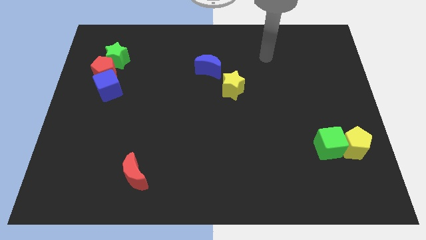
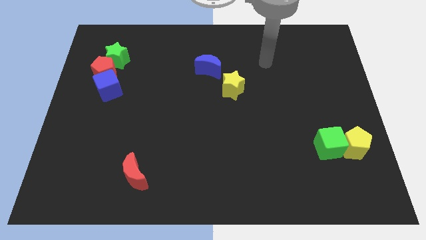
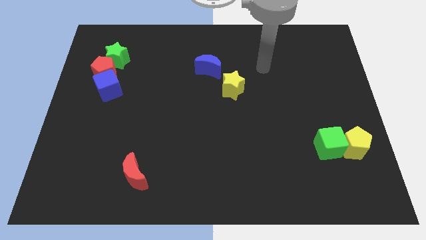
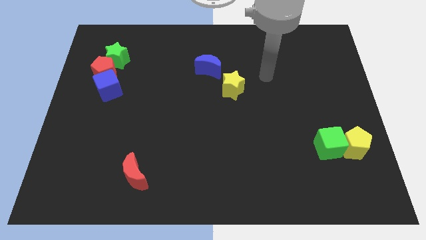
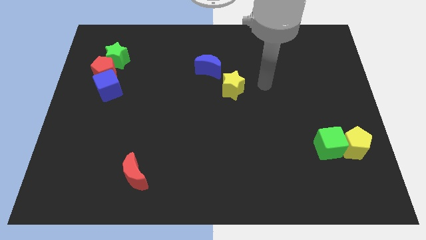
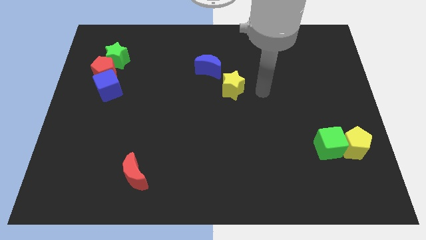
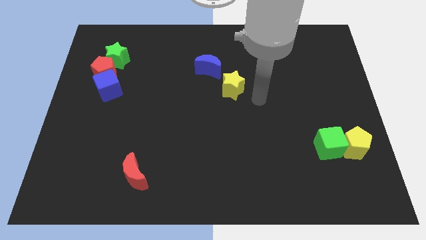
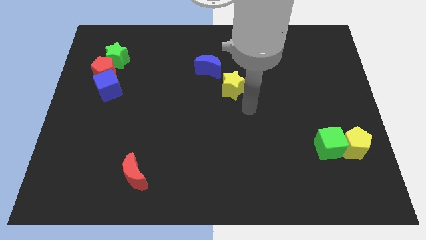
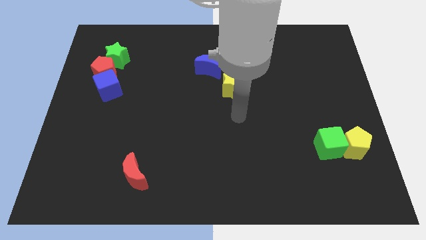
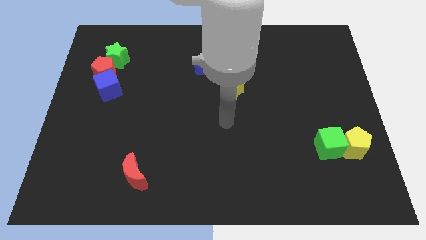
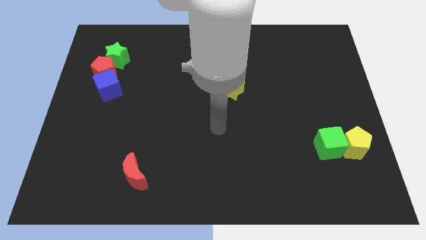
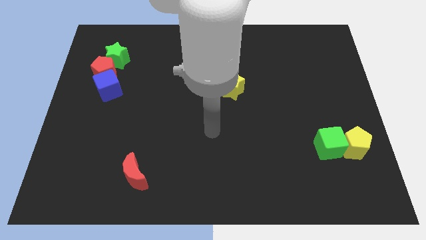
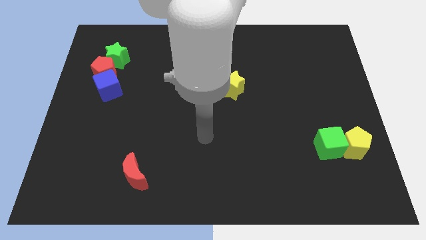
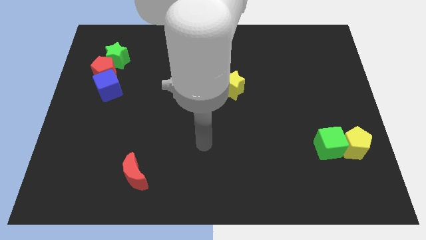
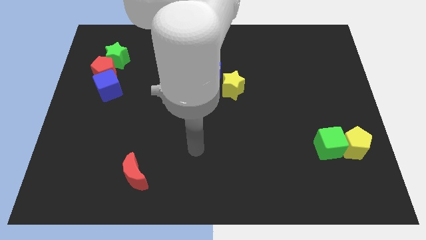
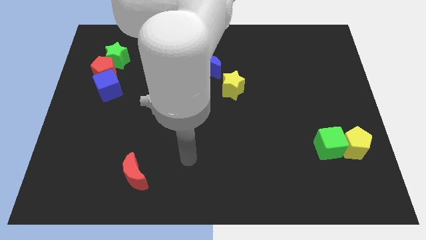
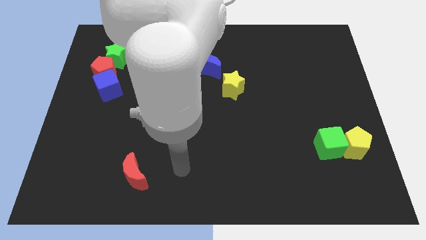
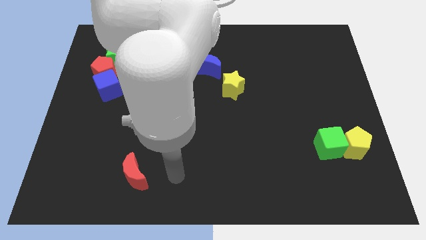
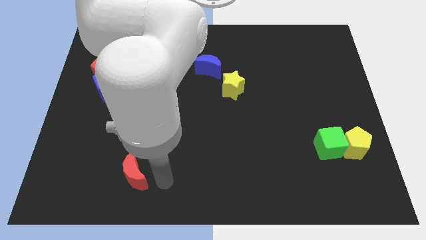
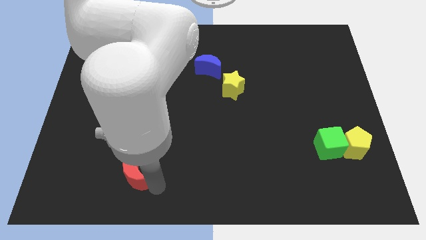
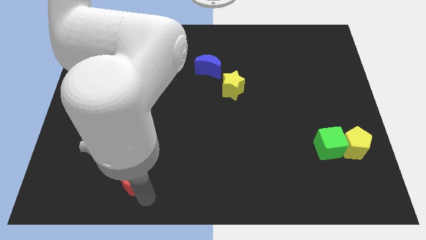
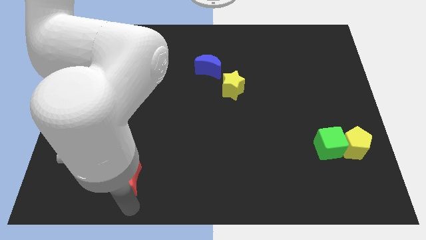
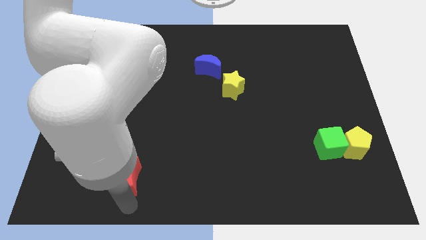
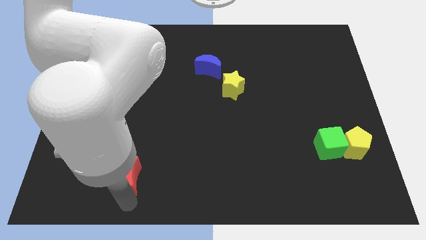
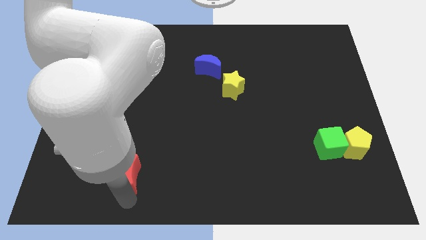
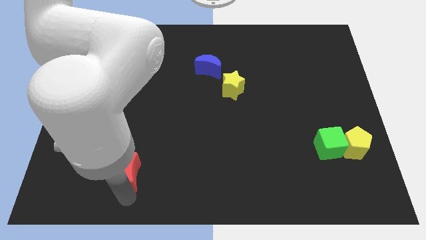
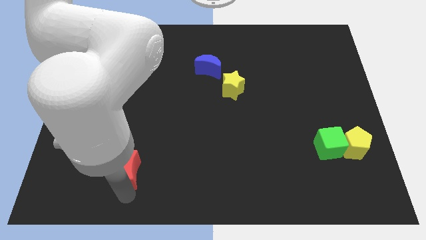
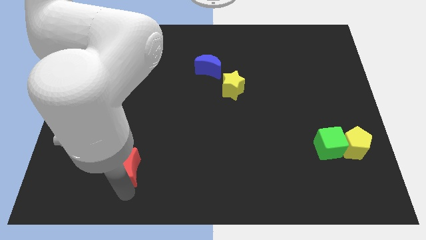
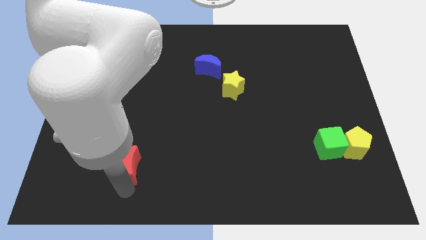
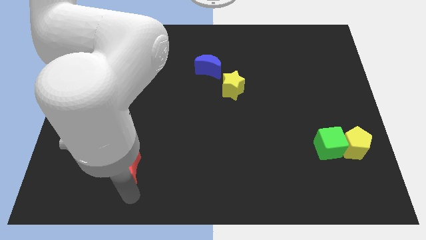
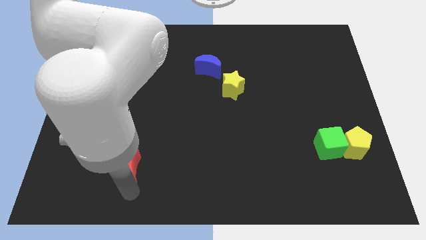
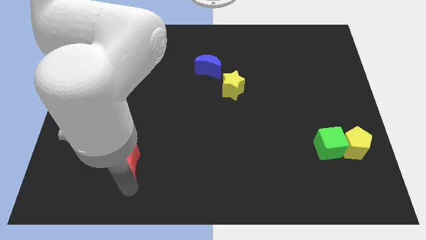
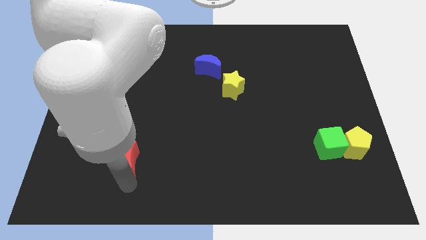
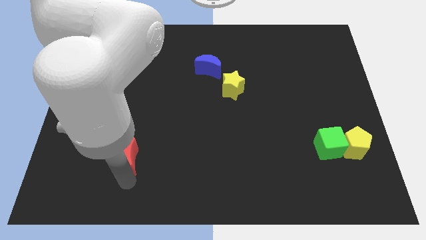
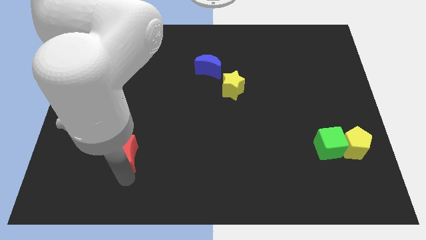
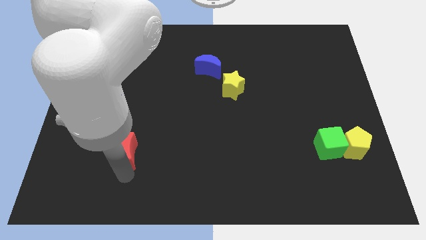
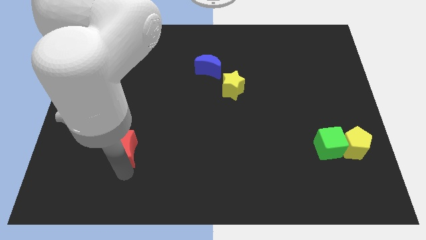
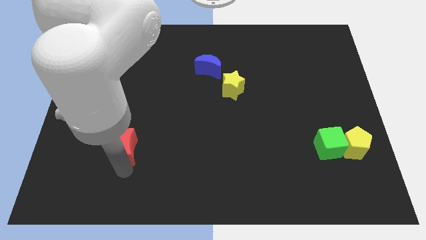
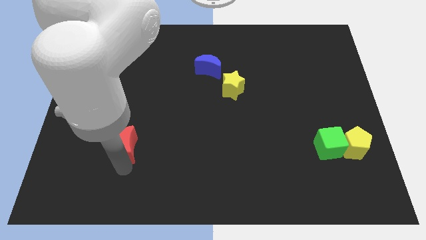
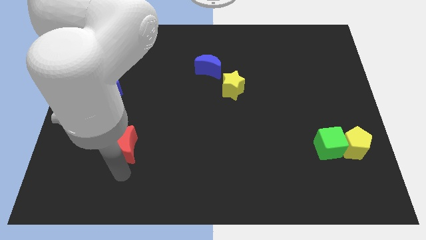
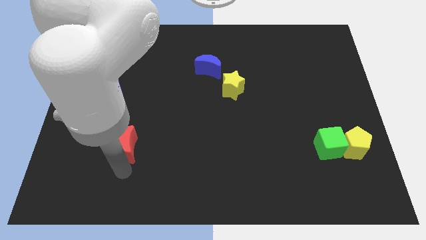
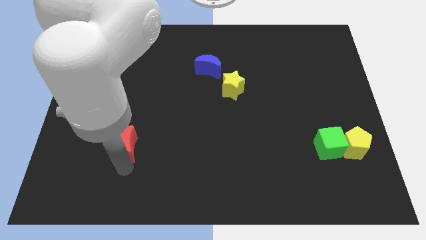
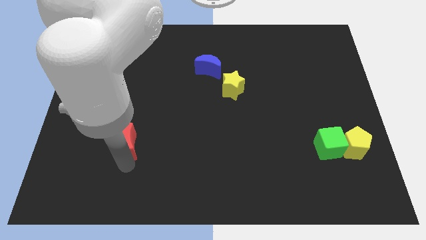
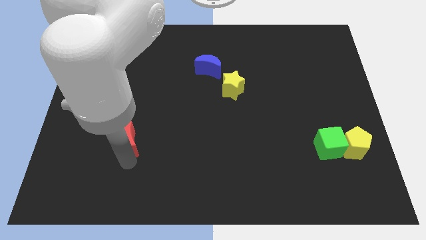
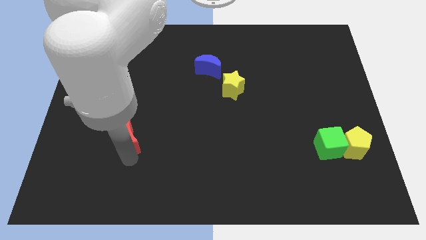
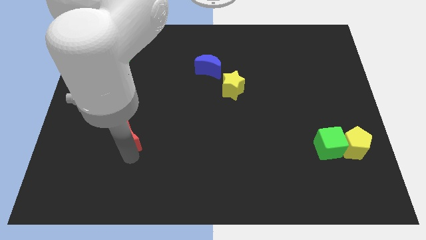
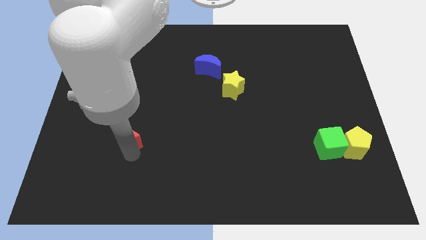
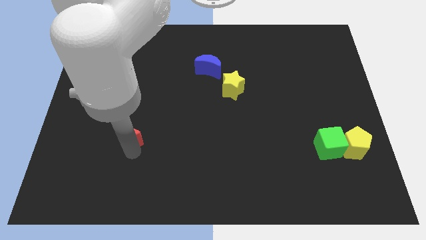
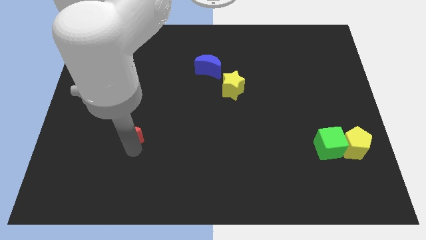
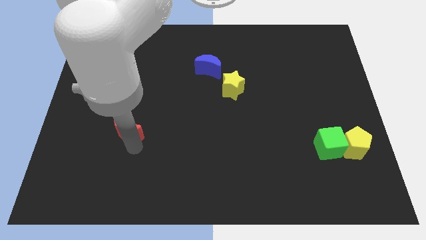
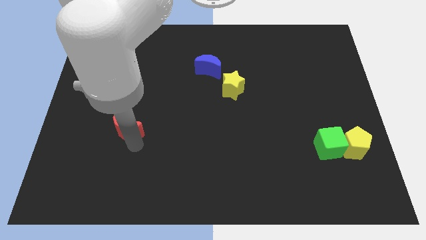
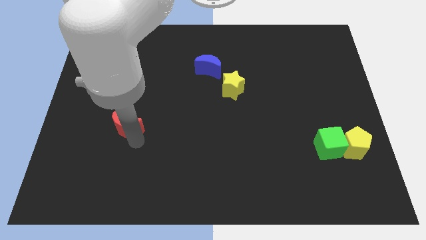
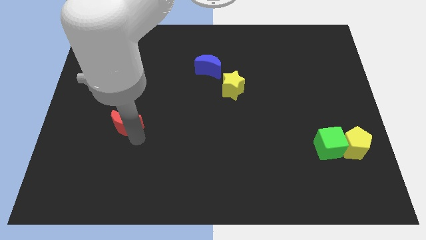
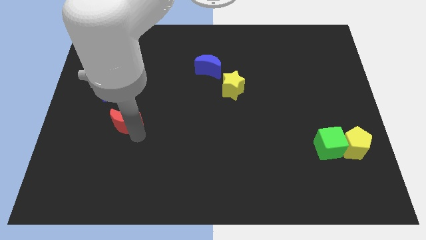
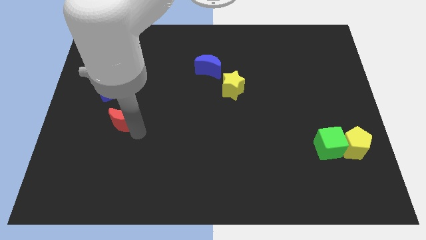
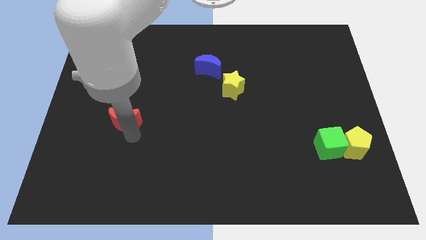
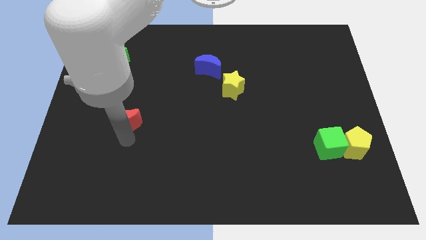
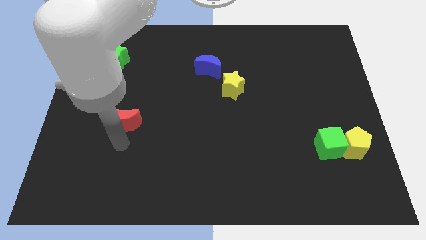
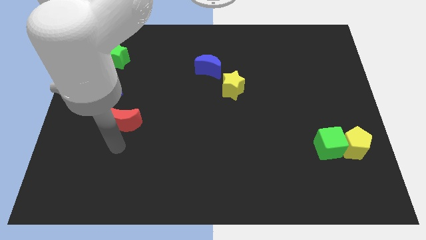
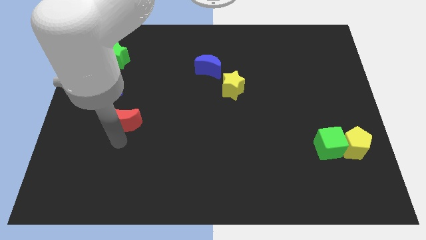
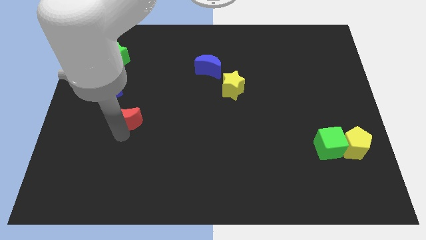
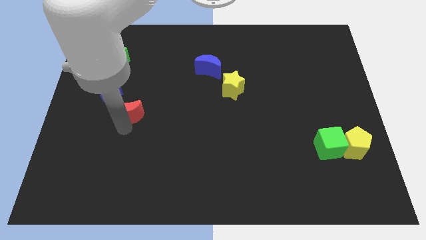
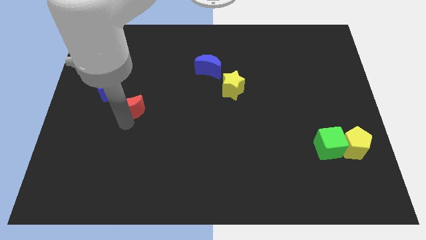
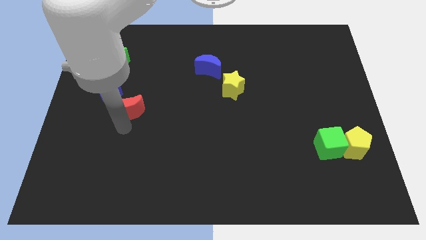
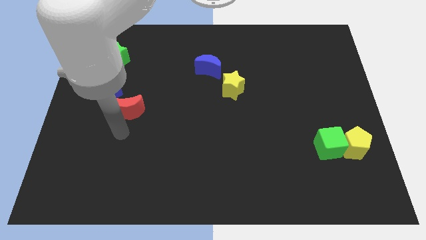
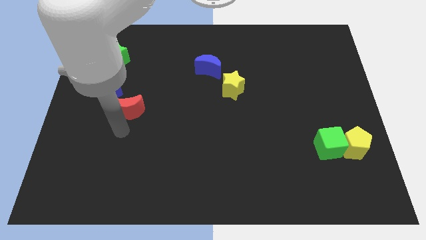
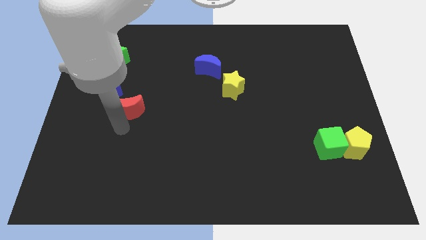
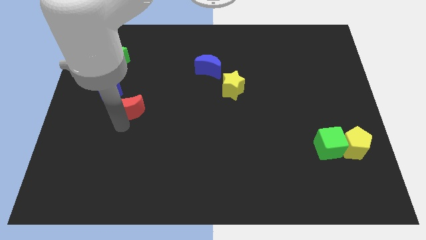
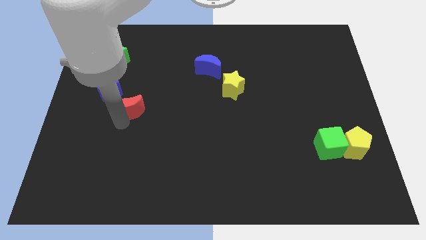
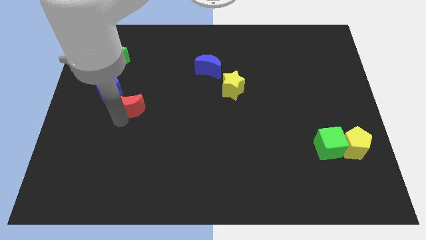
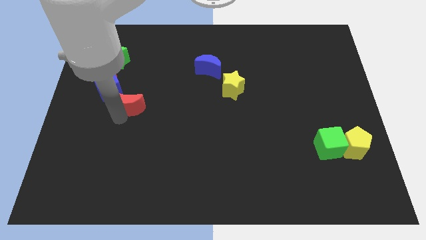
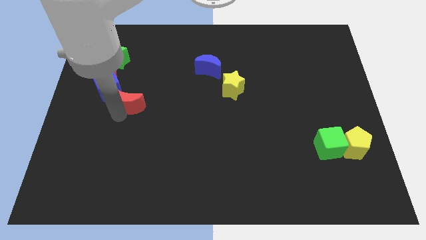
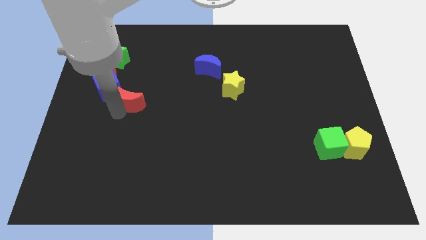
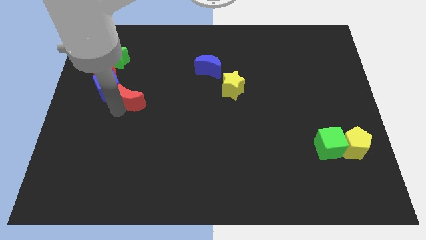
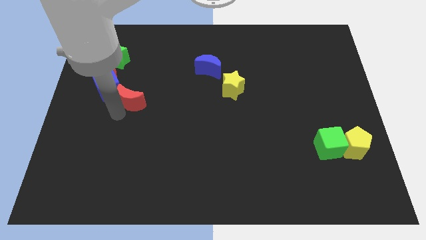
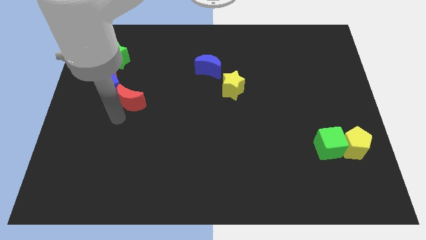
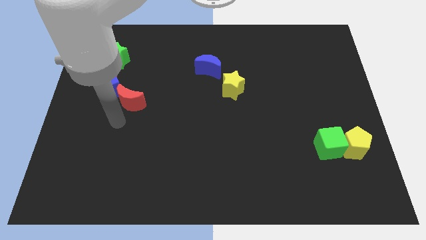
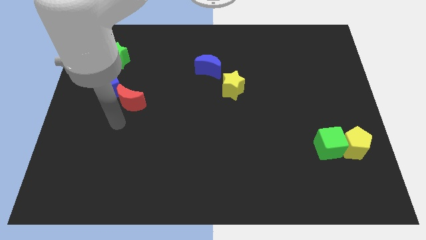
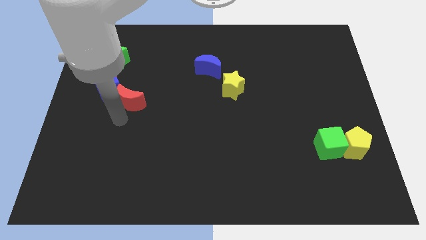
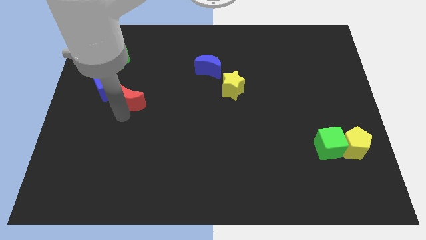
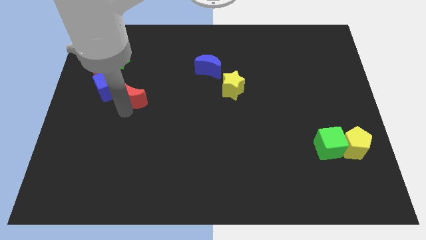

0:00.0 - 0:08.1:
slide the red moon up
